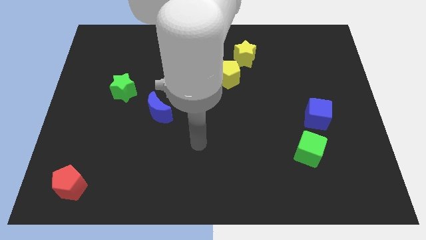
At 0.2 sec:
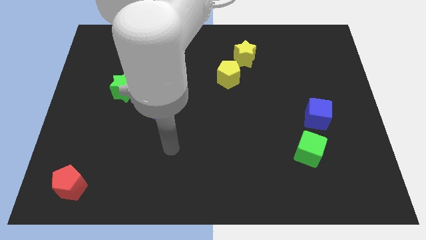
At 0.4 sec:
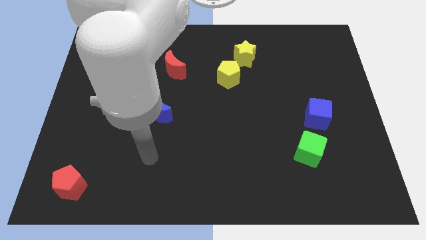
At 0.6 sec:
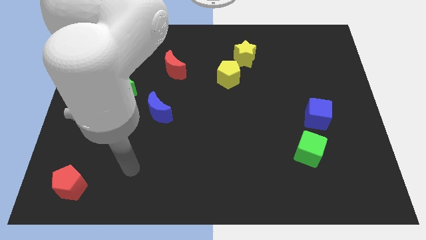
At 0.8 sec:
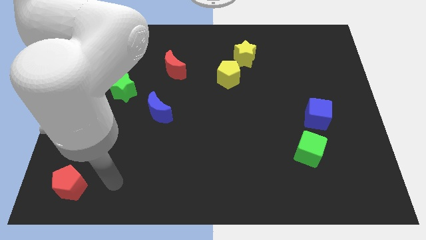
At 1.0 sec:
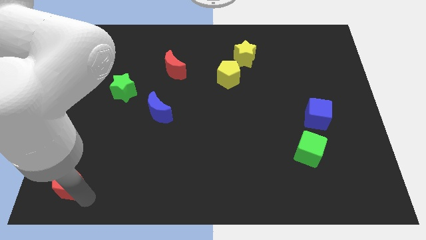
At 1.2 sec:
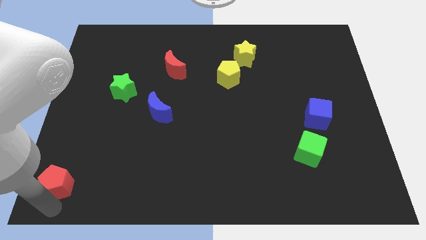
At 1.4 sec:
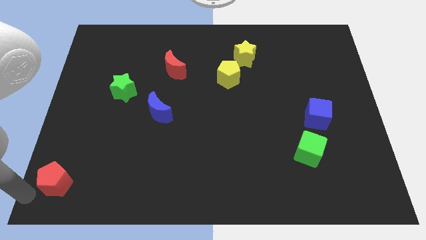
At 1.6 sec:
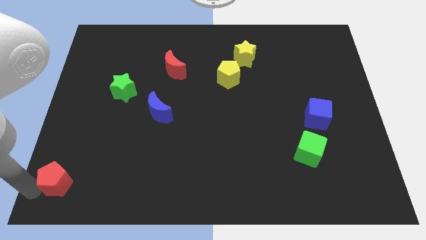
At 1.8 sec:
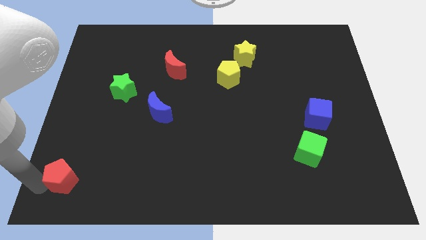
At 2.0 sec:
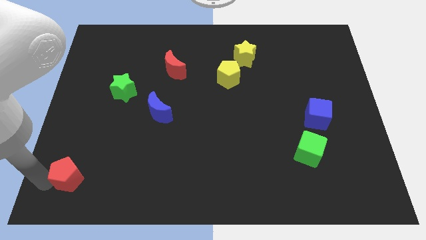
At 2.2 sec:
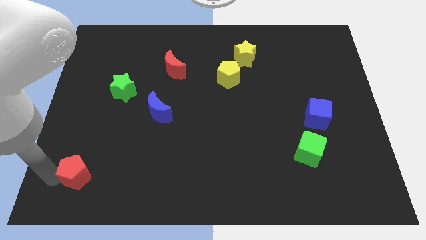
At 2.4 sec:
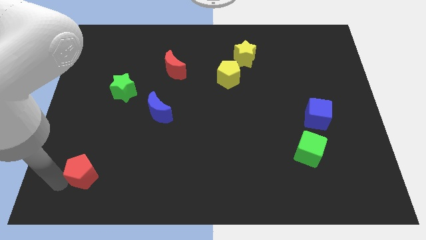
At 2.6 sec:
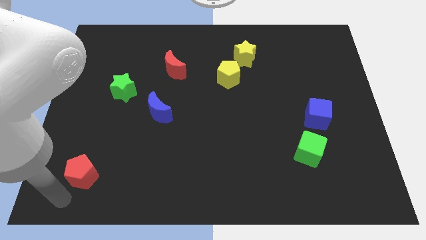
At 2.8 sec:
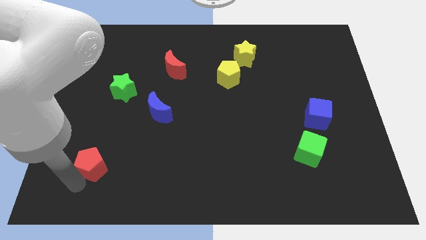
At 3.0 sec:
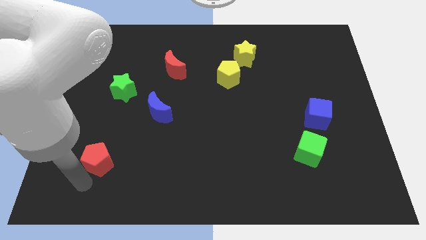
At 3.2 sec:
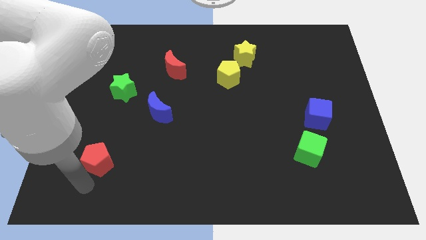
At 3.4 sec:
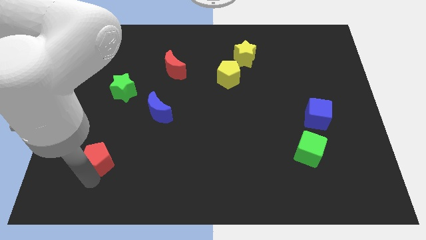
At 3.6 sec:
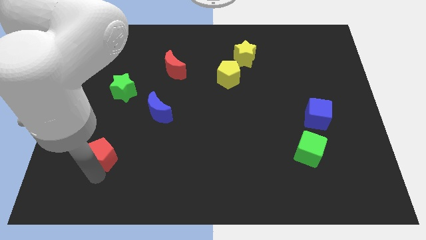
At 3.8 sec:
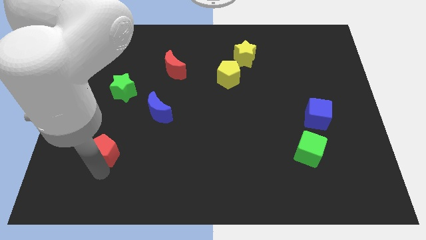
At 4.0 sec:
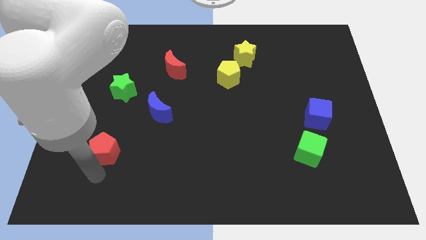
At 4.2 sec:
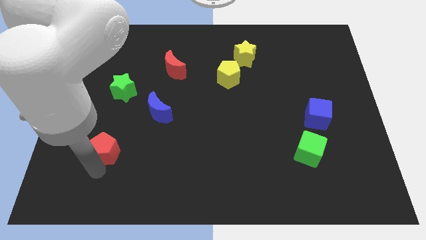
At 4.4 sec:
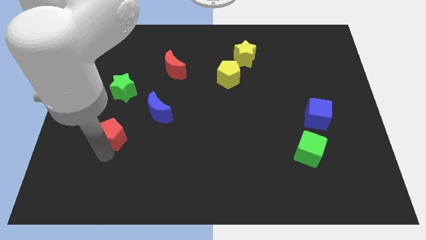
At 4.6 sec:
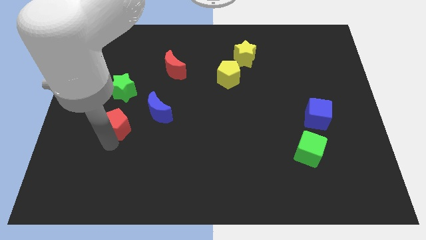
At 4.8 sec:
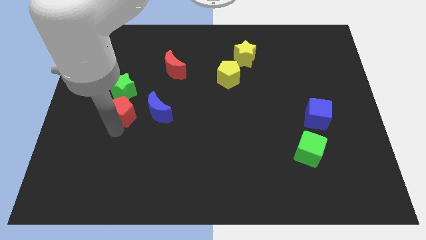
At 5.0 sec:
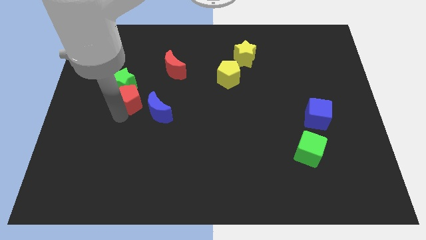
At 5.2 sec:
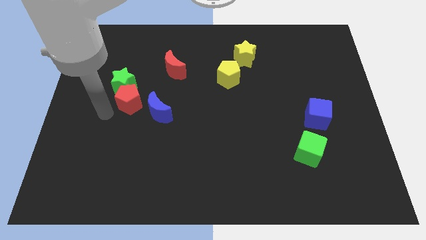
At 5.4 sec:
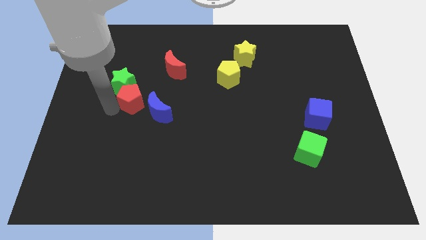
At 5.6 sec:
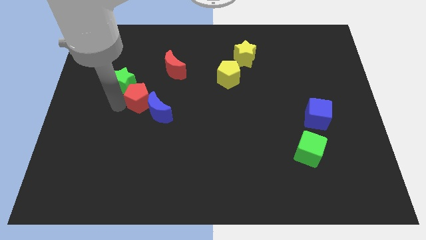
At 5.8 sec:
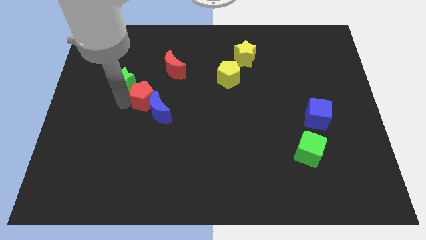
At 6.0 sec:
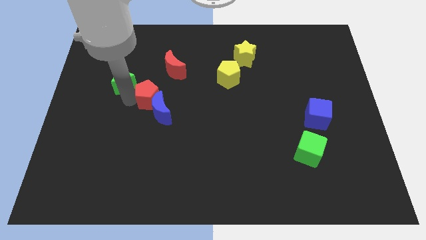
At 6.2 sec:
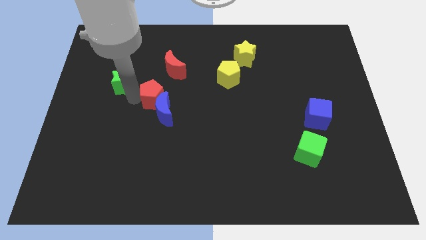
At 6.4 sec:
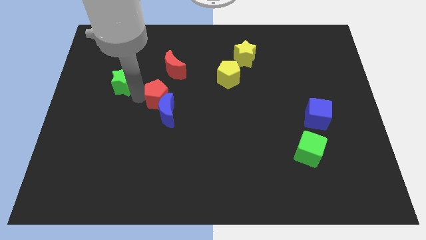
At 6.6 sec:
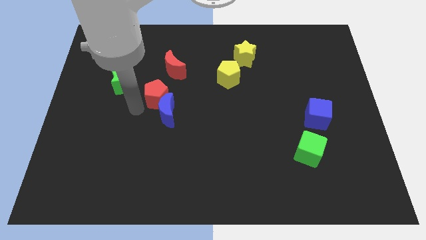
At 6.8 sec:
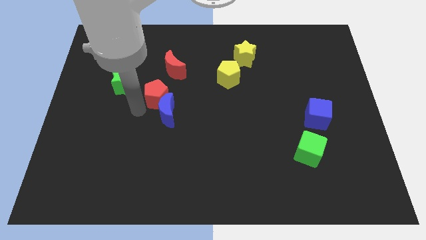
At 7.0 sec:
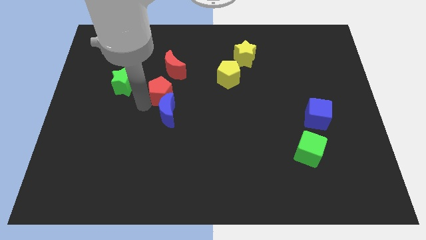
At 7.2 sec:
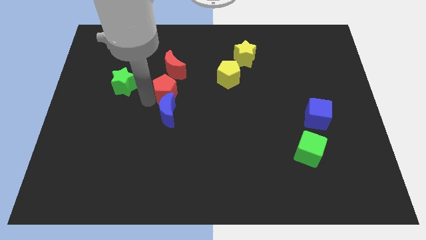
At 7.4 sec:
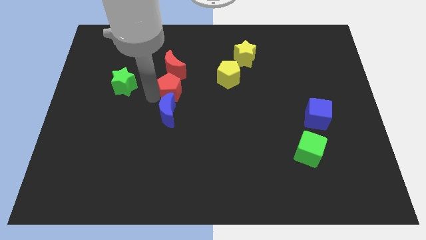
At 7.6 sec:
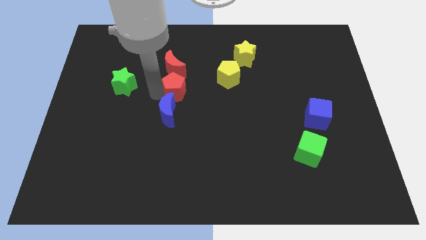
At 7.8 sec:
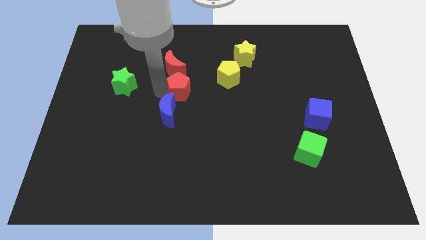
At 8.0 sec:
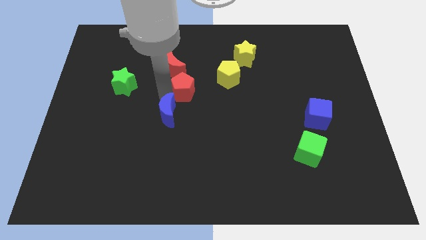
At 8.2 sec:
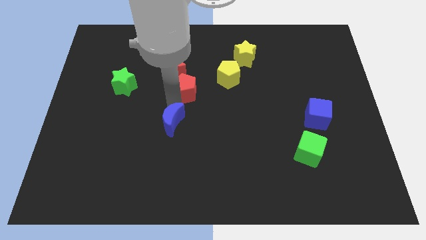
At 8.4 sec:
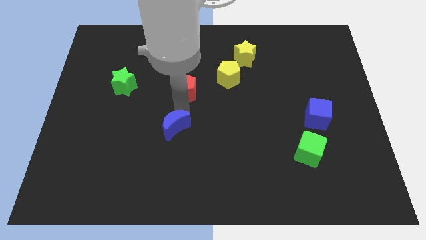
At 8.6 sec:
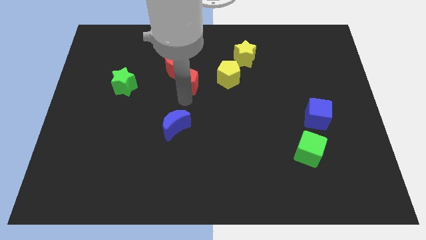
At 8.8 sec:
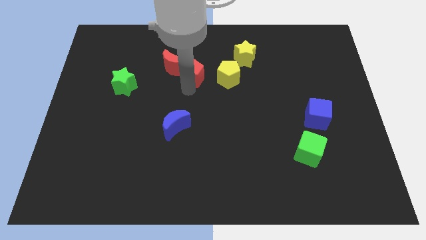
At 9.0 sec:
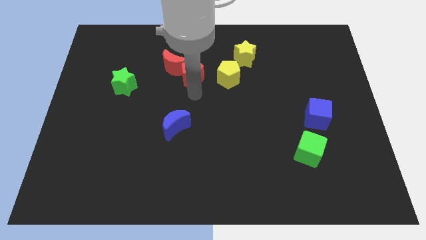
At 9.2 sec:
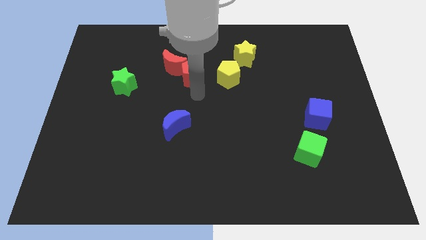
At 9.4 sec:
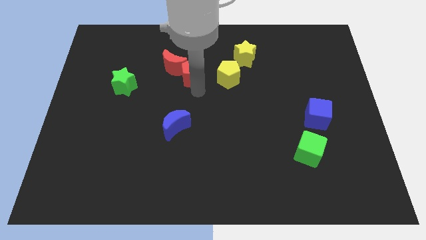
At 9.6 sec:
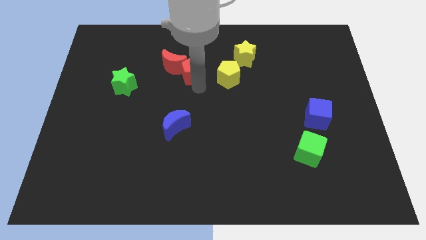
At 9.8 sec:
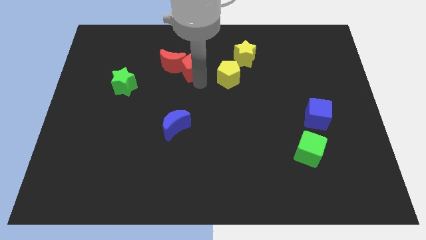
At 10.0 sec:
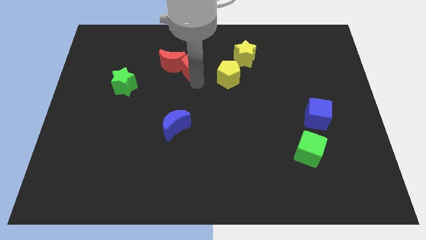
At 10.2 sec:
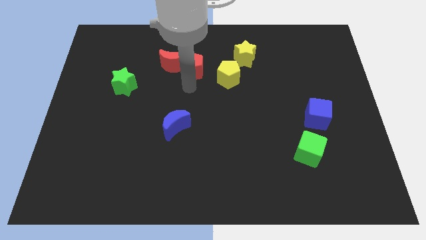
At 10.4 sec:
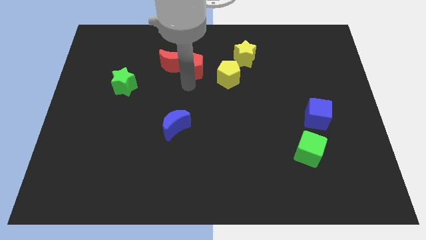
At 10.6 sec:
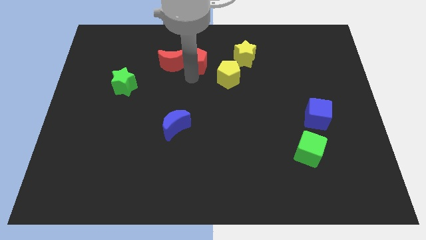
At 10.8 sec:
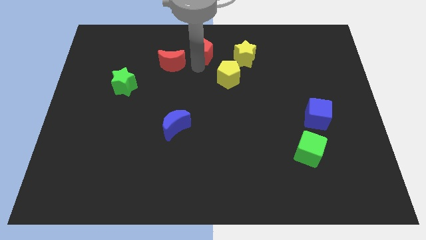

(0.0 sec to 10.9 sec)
push the red pentagon to the top side

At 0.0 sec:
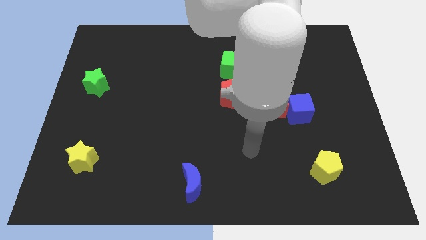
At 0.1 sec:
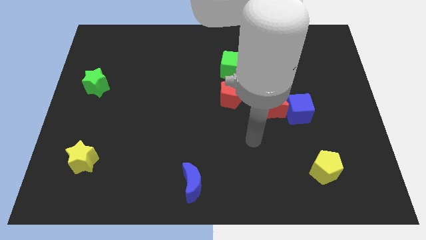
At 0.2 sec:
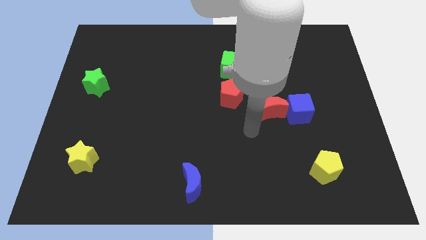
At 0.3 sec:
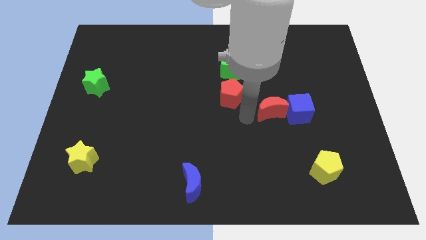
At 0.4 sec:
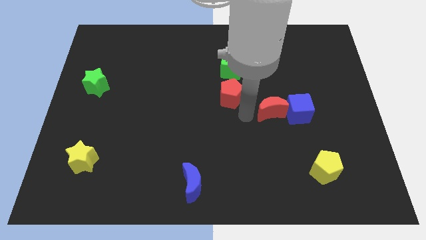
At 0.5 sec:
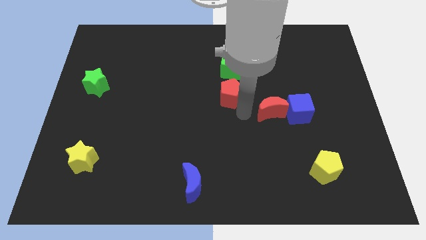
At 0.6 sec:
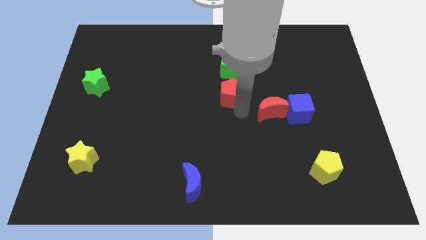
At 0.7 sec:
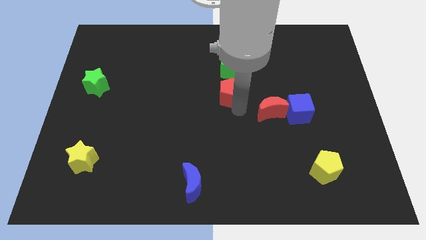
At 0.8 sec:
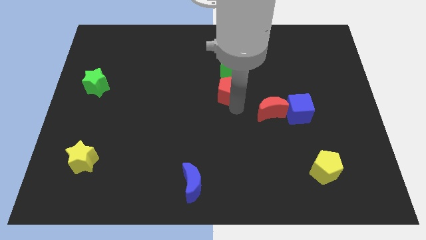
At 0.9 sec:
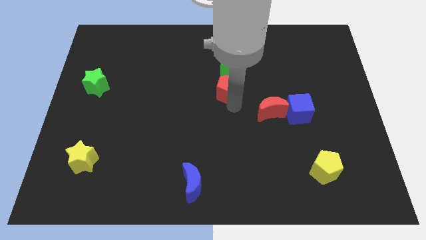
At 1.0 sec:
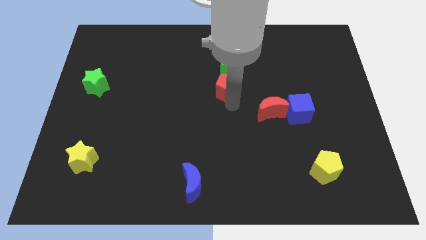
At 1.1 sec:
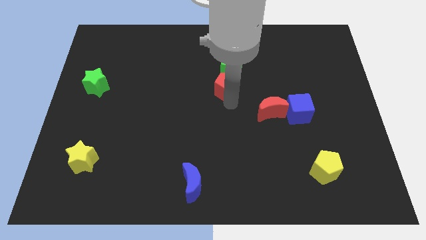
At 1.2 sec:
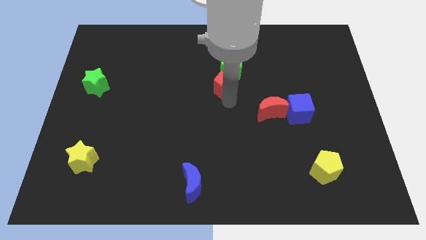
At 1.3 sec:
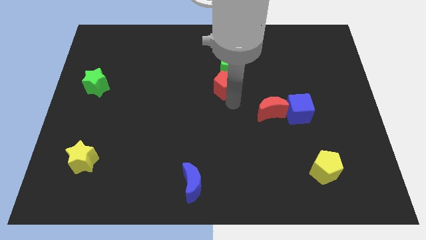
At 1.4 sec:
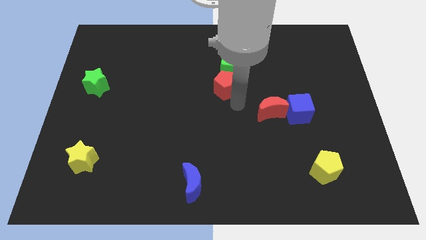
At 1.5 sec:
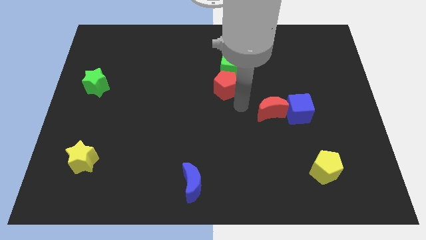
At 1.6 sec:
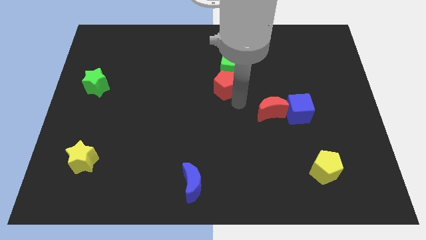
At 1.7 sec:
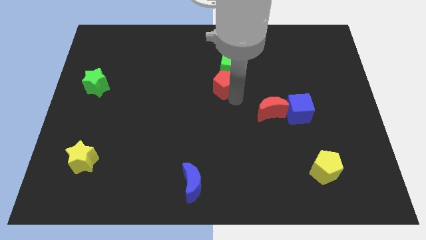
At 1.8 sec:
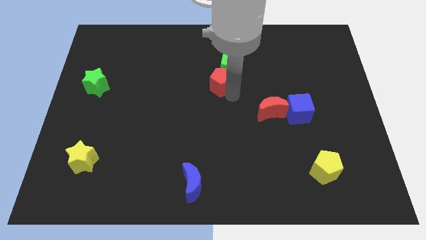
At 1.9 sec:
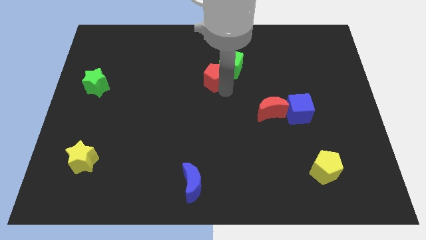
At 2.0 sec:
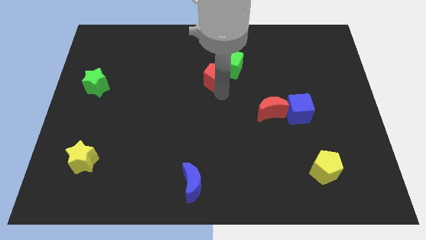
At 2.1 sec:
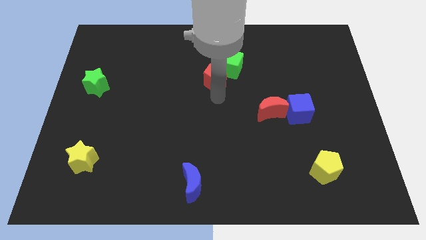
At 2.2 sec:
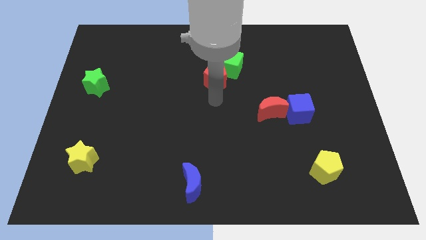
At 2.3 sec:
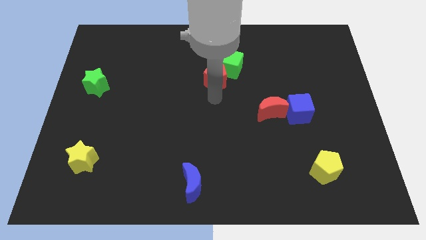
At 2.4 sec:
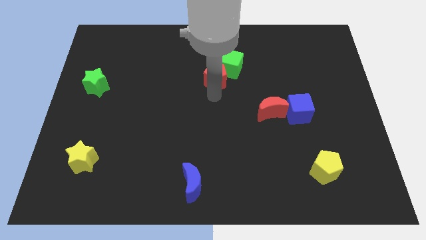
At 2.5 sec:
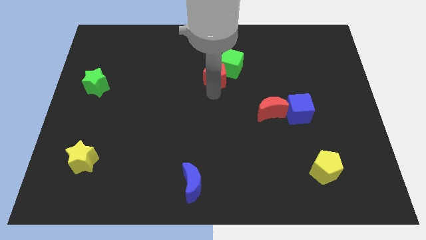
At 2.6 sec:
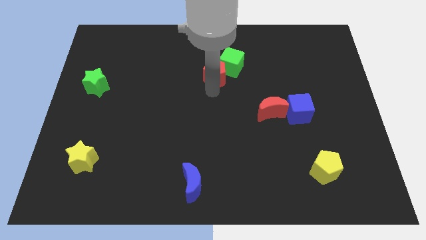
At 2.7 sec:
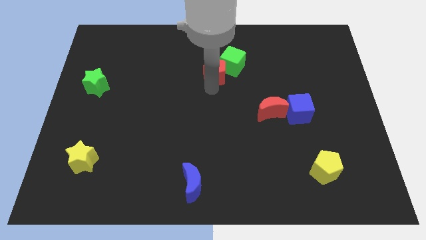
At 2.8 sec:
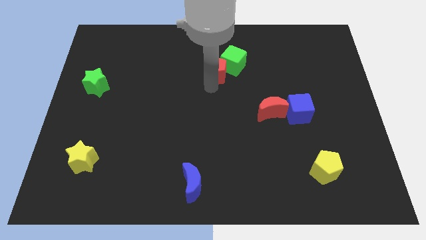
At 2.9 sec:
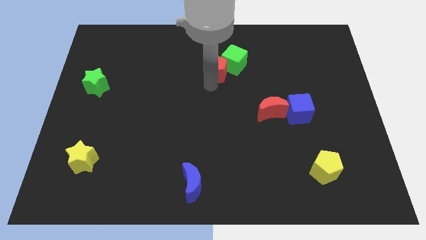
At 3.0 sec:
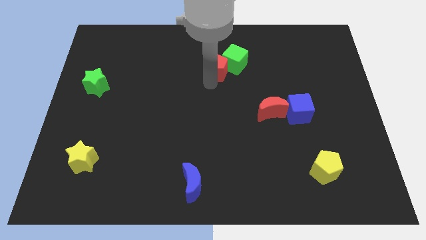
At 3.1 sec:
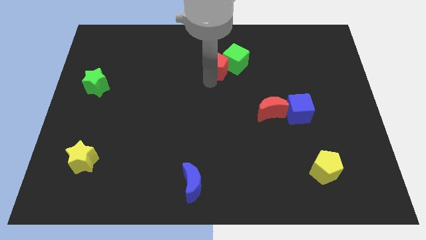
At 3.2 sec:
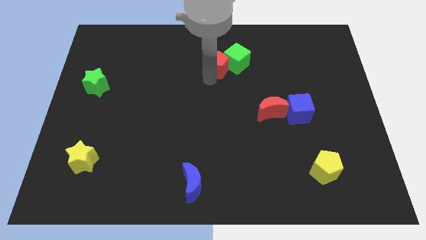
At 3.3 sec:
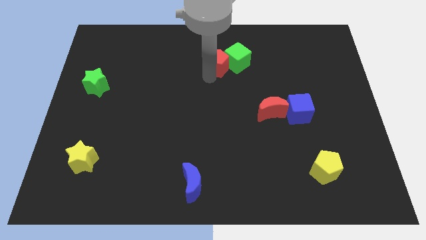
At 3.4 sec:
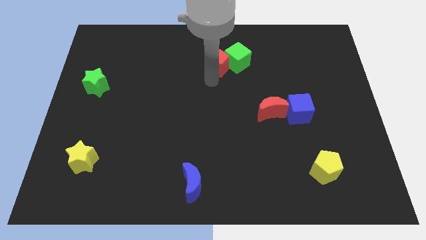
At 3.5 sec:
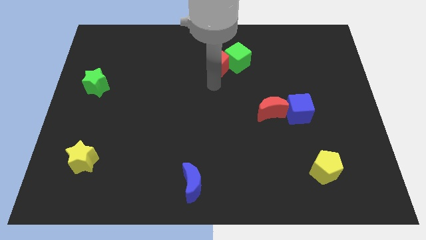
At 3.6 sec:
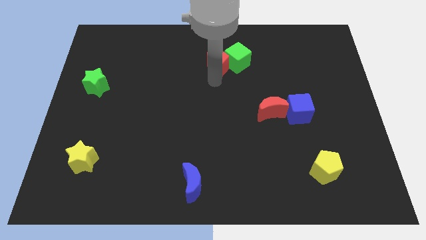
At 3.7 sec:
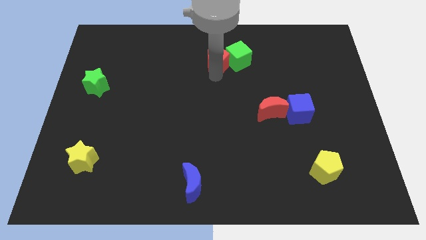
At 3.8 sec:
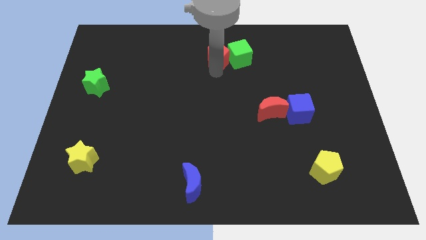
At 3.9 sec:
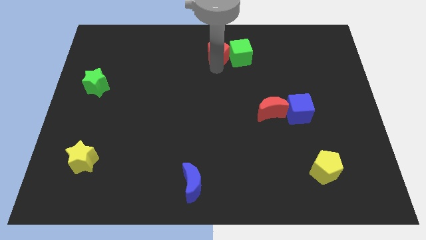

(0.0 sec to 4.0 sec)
slide the red pentagon to the towards your base
